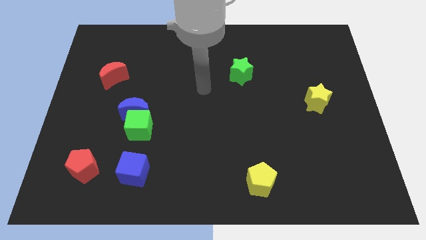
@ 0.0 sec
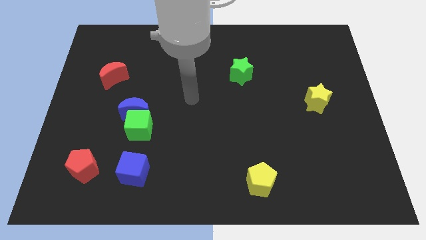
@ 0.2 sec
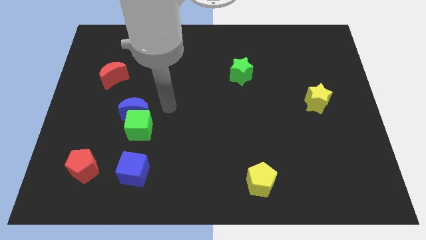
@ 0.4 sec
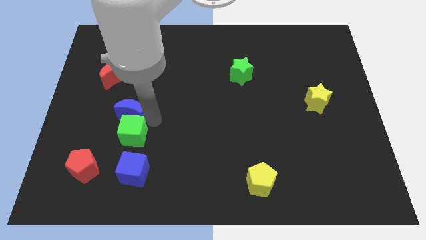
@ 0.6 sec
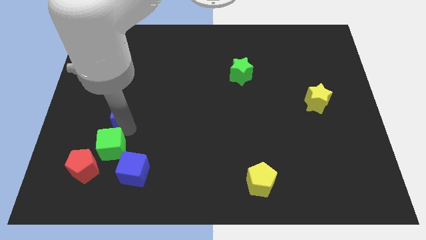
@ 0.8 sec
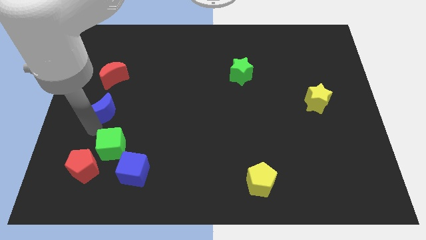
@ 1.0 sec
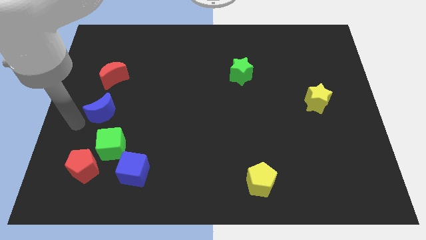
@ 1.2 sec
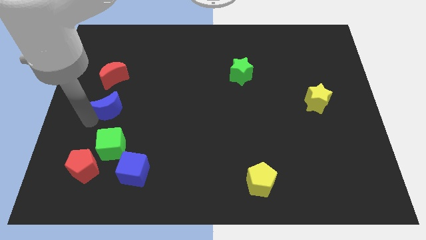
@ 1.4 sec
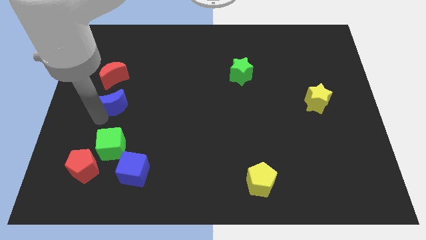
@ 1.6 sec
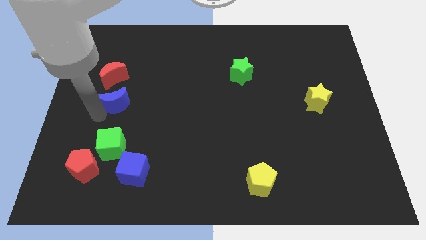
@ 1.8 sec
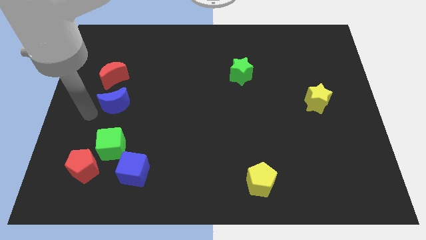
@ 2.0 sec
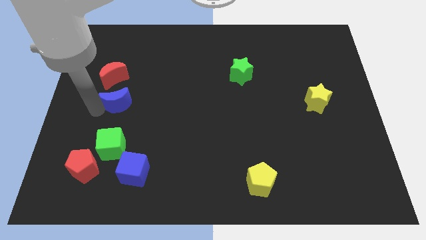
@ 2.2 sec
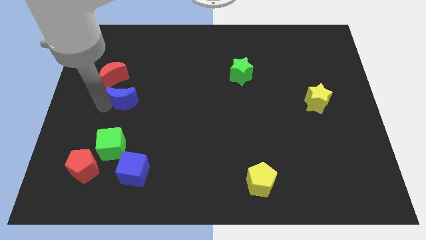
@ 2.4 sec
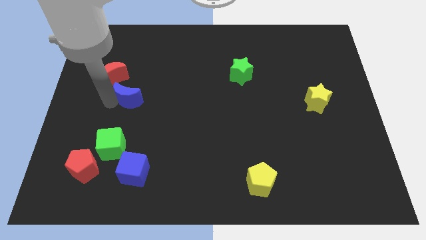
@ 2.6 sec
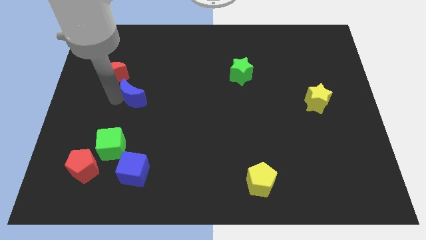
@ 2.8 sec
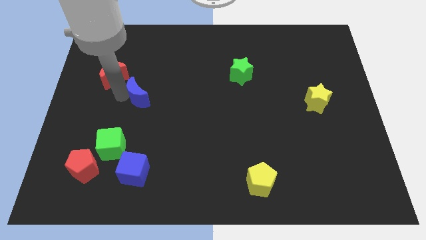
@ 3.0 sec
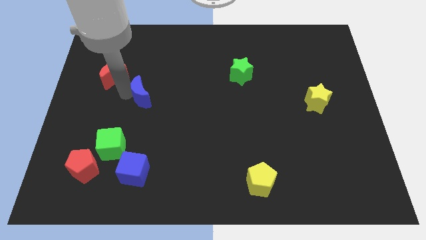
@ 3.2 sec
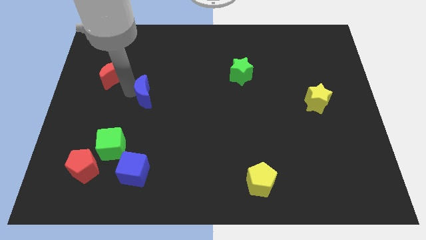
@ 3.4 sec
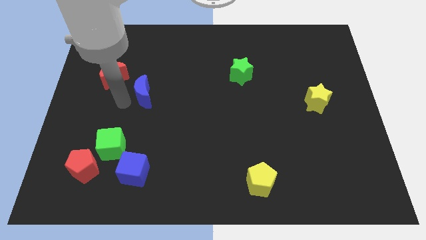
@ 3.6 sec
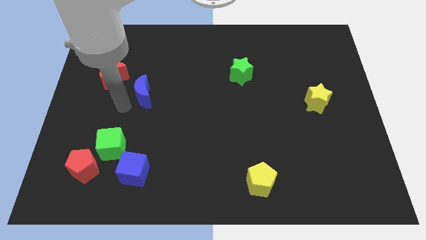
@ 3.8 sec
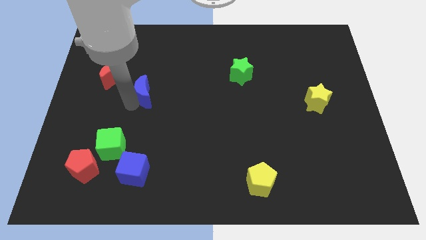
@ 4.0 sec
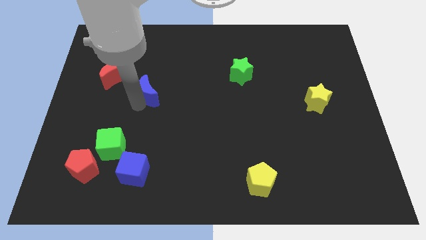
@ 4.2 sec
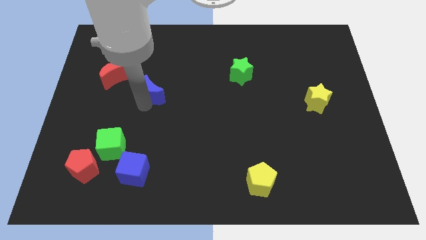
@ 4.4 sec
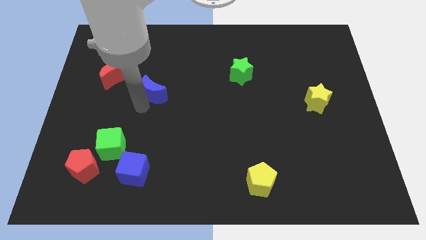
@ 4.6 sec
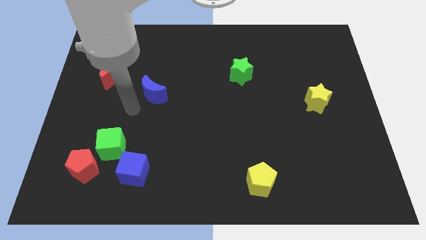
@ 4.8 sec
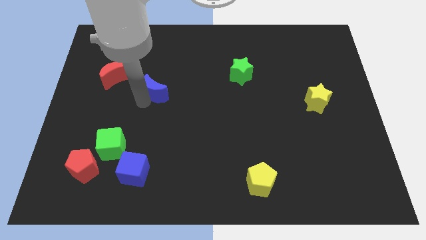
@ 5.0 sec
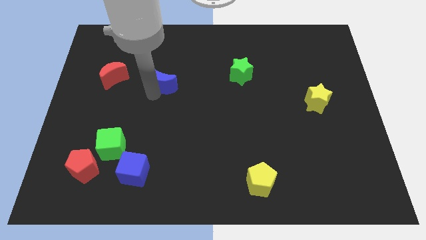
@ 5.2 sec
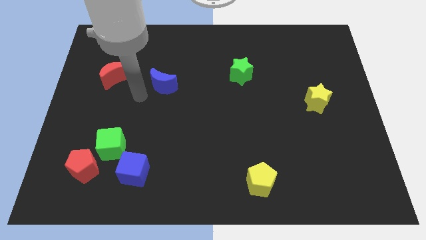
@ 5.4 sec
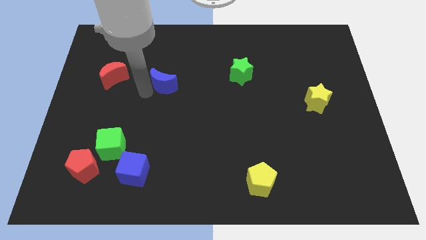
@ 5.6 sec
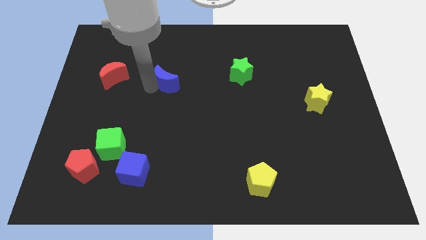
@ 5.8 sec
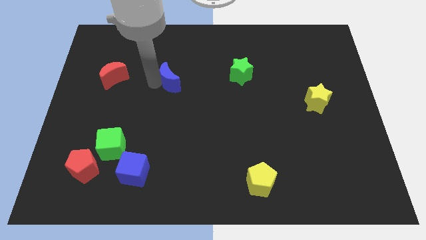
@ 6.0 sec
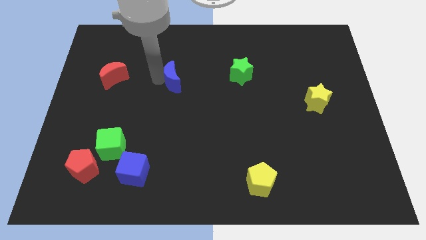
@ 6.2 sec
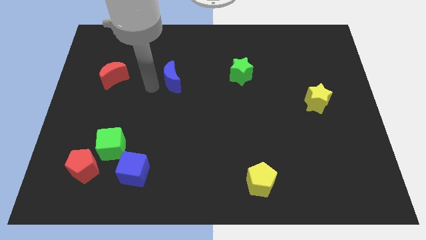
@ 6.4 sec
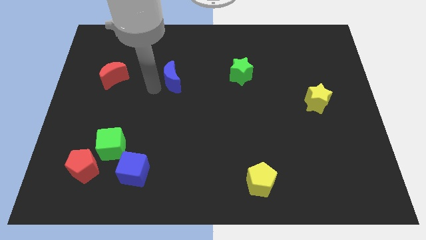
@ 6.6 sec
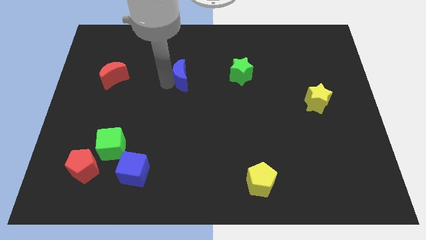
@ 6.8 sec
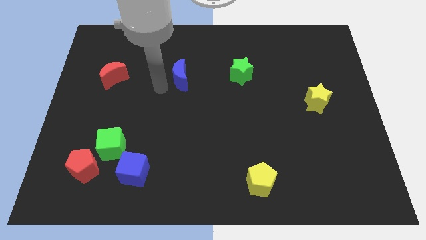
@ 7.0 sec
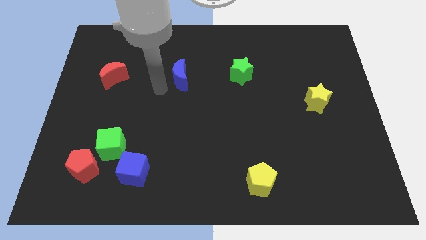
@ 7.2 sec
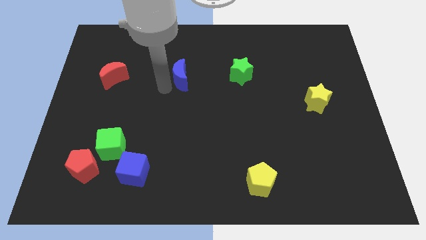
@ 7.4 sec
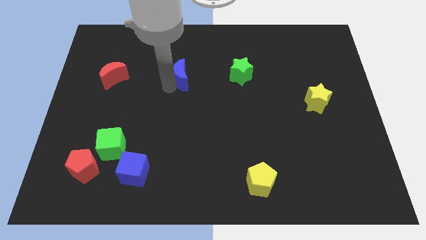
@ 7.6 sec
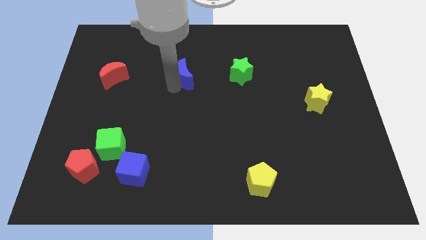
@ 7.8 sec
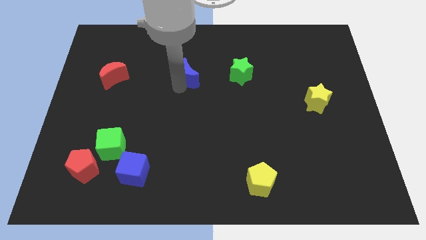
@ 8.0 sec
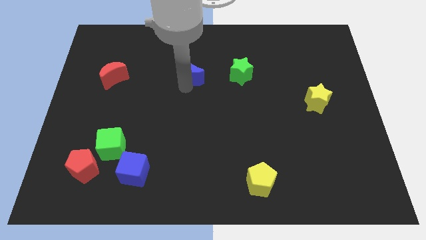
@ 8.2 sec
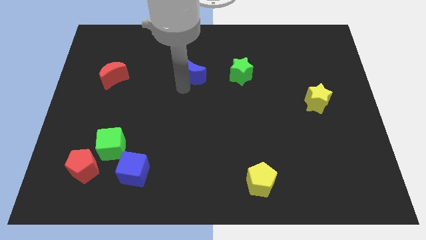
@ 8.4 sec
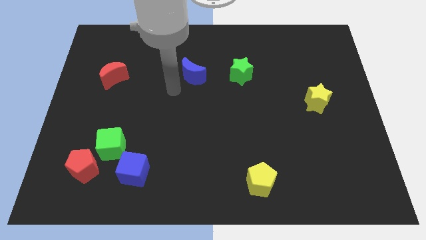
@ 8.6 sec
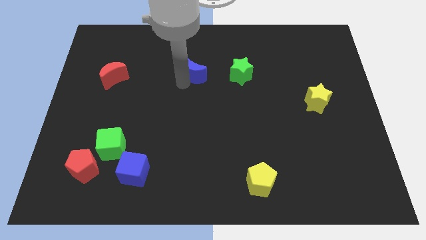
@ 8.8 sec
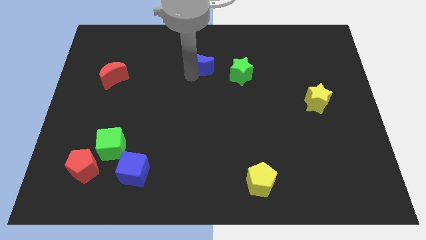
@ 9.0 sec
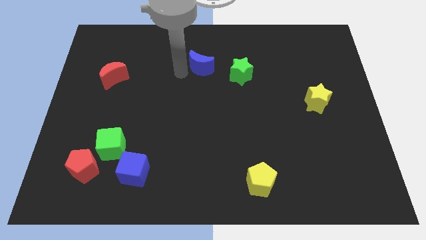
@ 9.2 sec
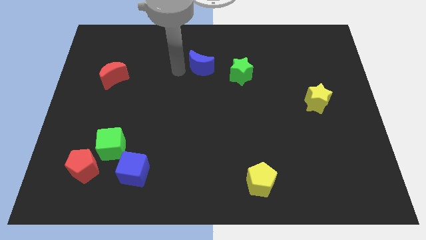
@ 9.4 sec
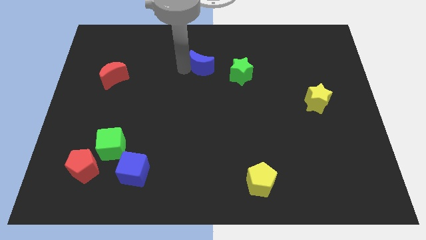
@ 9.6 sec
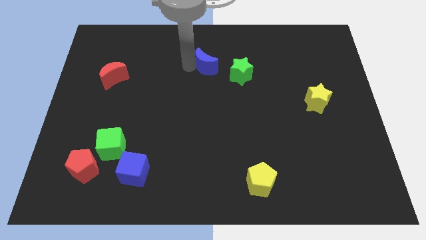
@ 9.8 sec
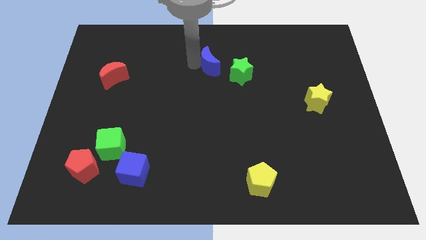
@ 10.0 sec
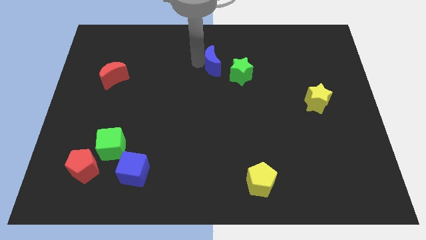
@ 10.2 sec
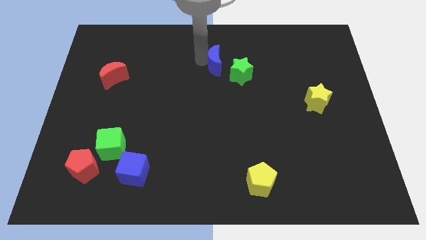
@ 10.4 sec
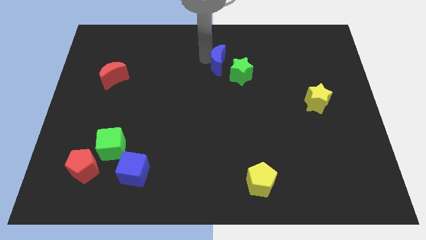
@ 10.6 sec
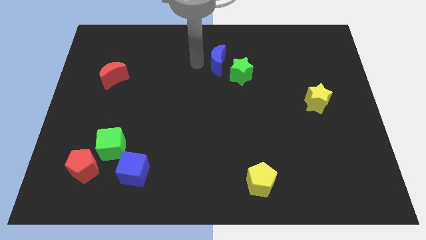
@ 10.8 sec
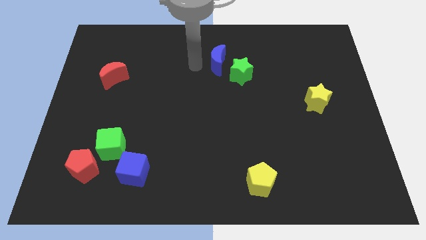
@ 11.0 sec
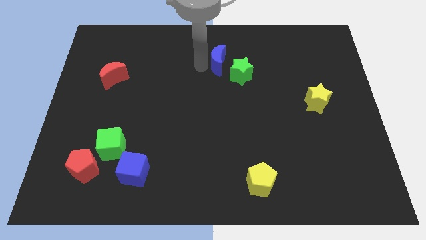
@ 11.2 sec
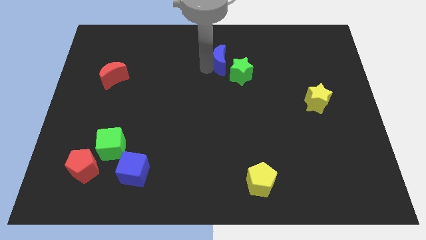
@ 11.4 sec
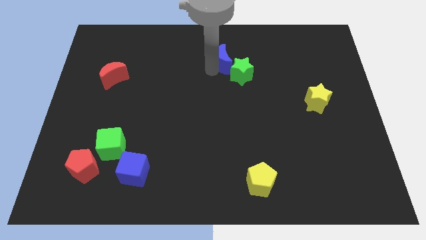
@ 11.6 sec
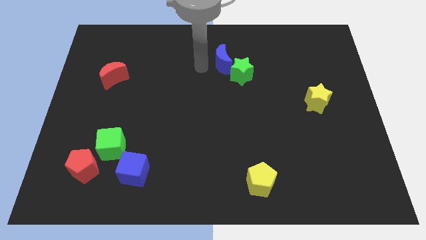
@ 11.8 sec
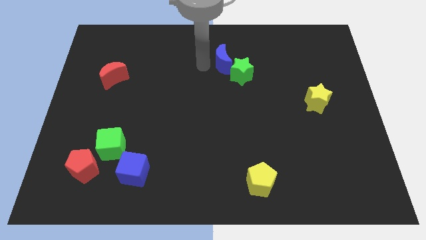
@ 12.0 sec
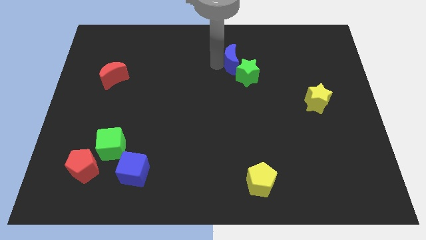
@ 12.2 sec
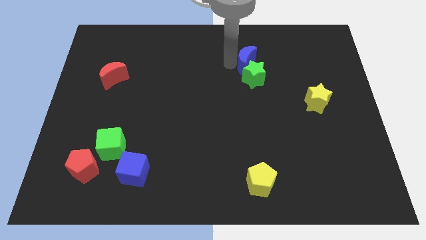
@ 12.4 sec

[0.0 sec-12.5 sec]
slide the blue moon to the top right side of the green star
